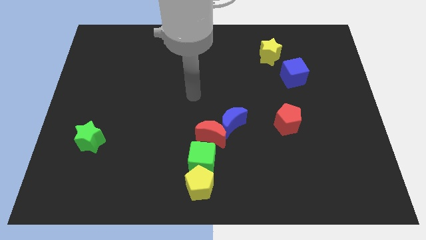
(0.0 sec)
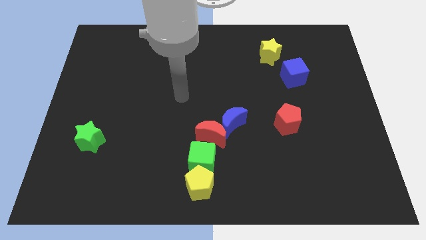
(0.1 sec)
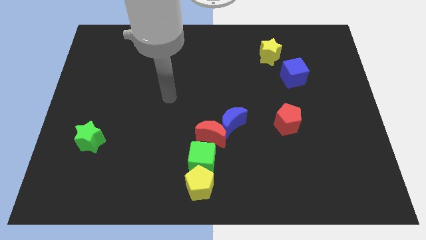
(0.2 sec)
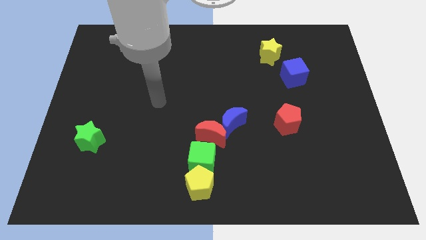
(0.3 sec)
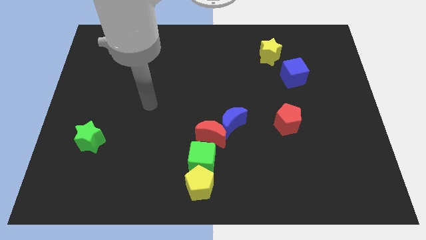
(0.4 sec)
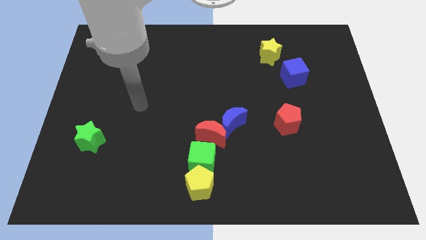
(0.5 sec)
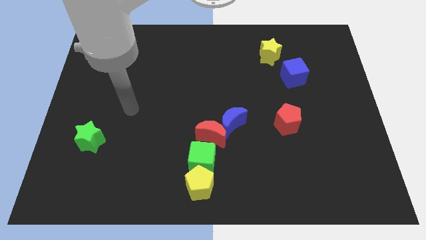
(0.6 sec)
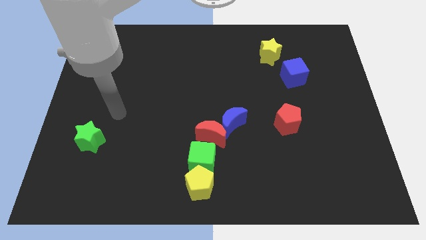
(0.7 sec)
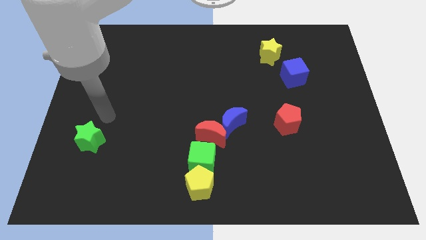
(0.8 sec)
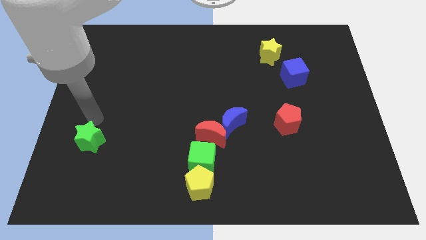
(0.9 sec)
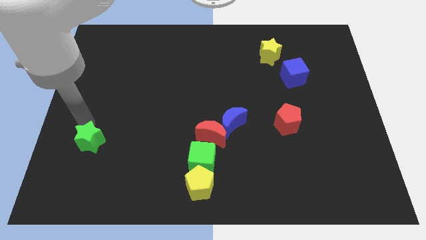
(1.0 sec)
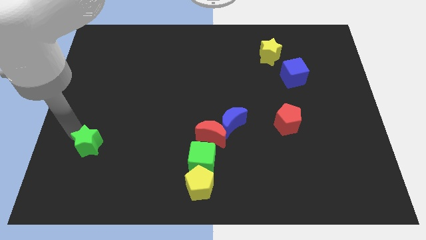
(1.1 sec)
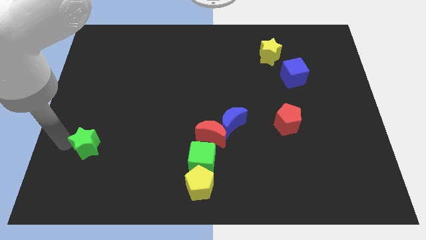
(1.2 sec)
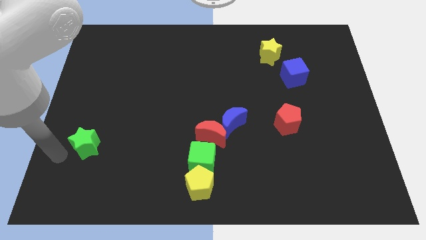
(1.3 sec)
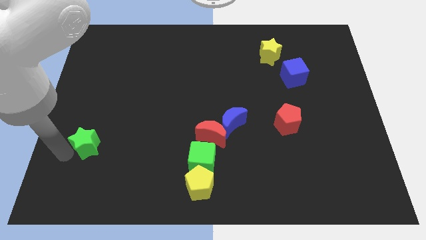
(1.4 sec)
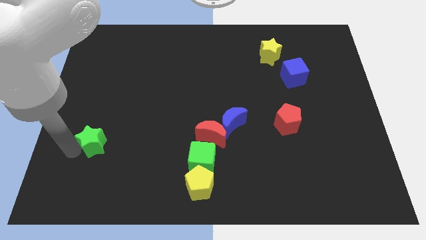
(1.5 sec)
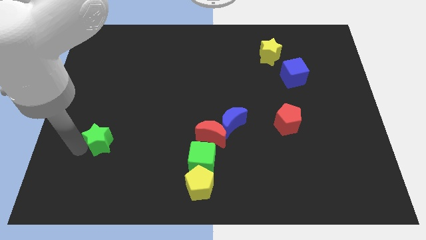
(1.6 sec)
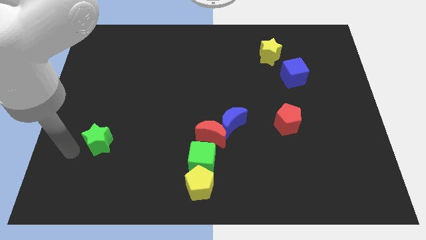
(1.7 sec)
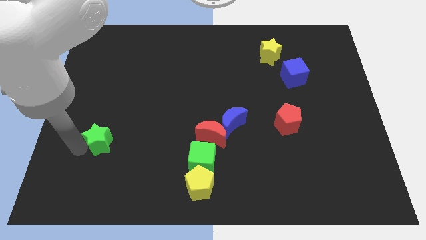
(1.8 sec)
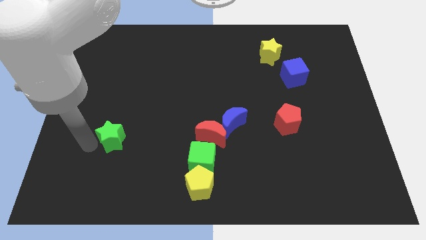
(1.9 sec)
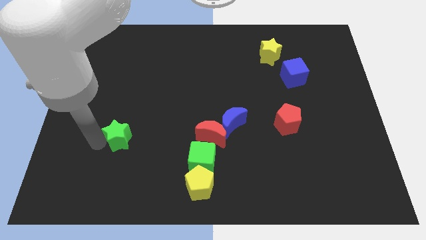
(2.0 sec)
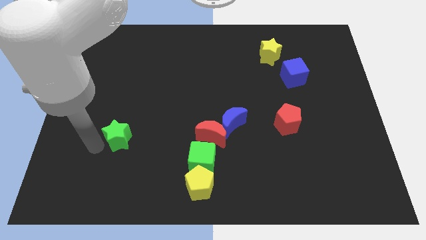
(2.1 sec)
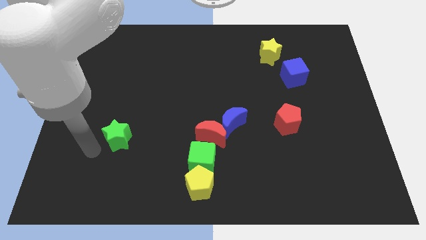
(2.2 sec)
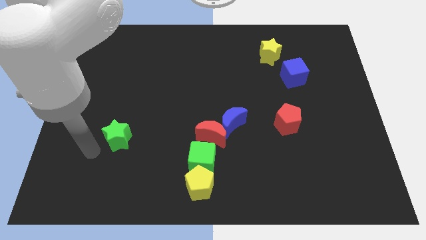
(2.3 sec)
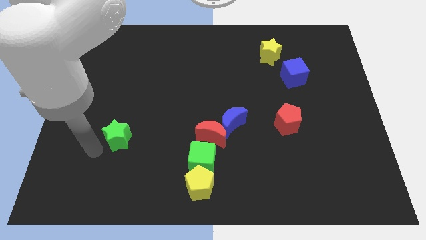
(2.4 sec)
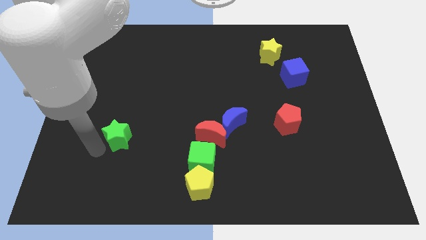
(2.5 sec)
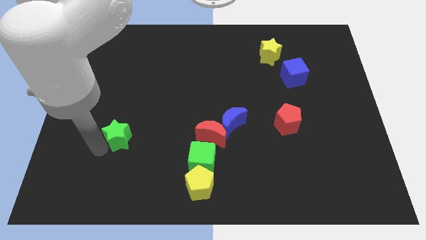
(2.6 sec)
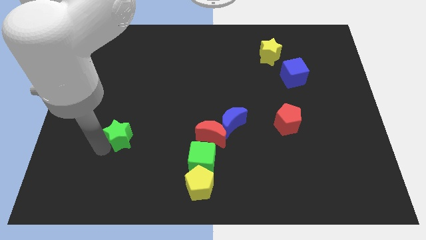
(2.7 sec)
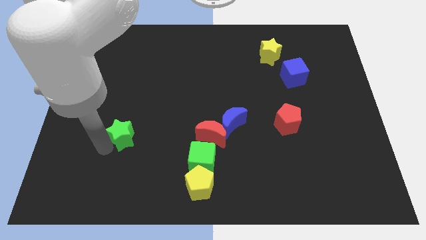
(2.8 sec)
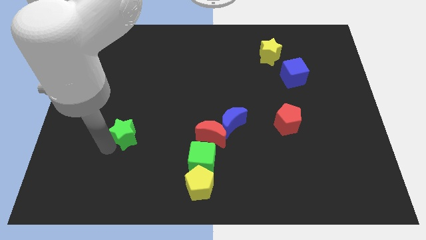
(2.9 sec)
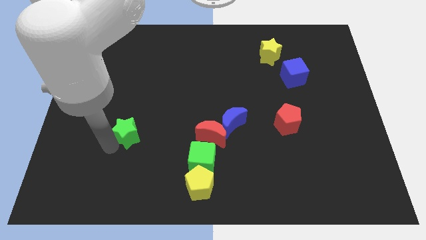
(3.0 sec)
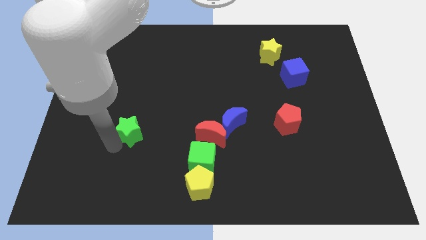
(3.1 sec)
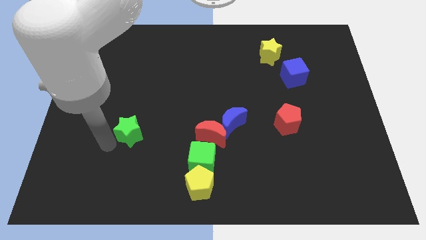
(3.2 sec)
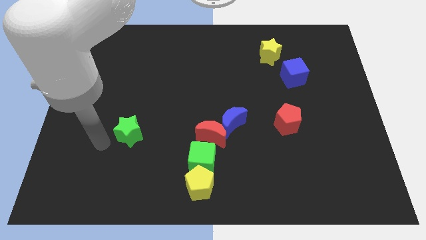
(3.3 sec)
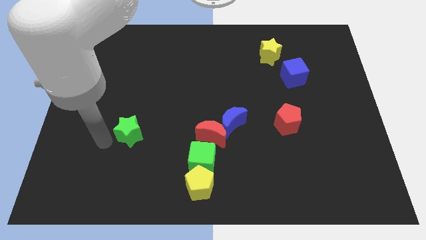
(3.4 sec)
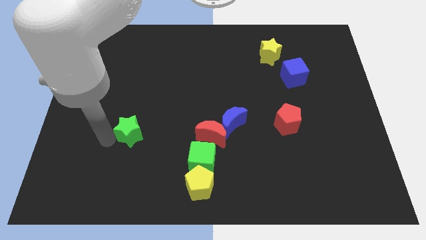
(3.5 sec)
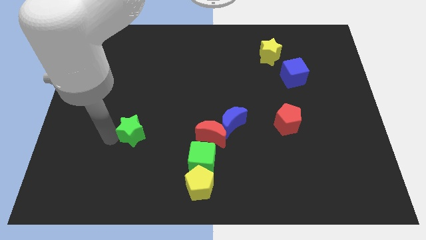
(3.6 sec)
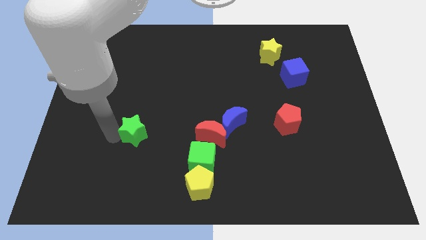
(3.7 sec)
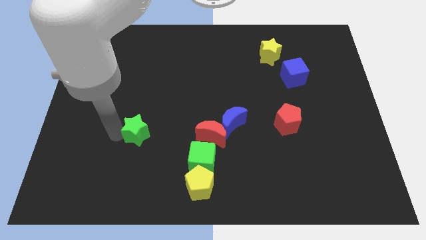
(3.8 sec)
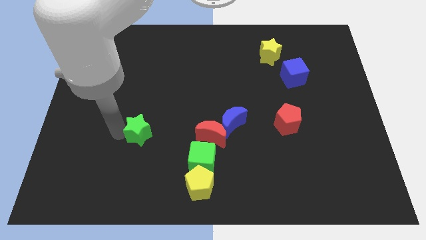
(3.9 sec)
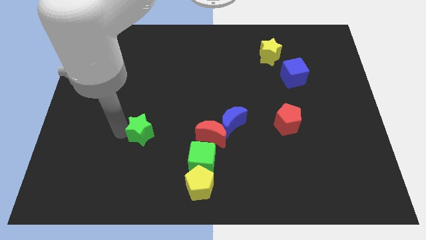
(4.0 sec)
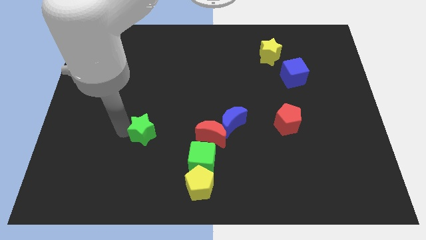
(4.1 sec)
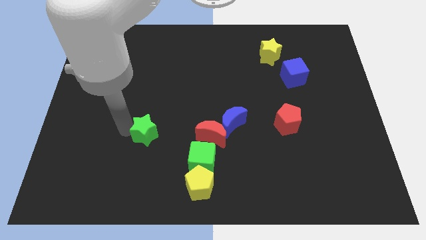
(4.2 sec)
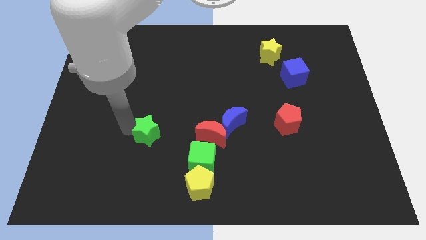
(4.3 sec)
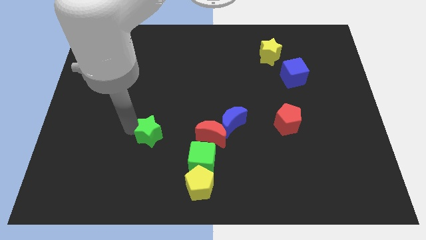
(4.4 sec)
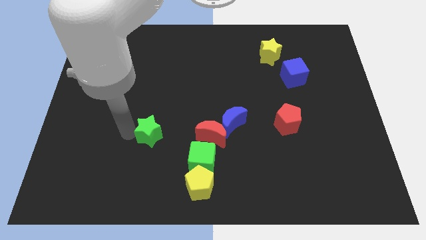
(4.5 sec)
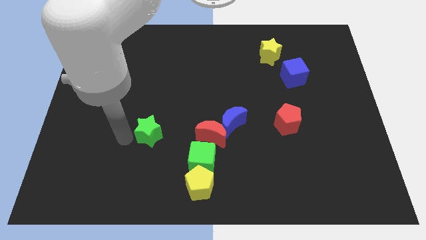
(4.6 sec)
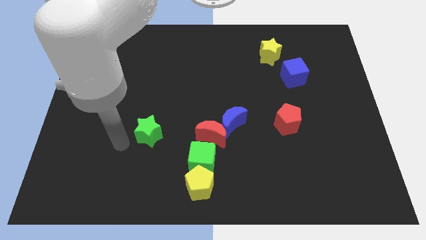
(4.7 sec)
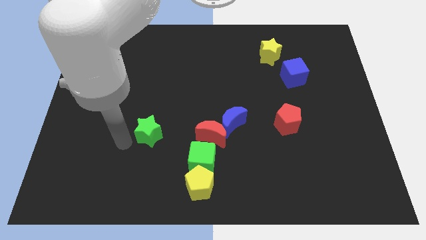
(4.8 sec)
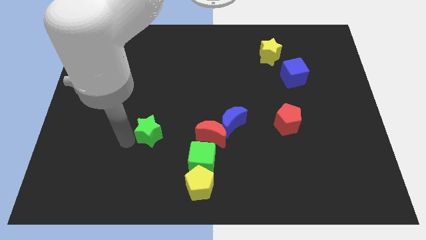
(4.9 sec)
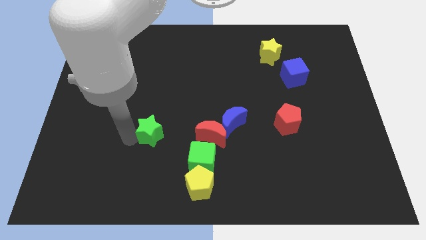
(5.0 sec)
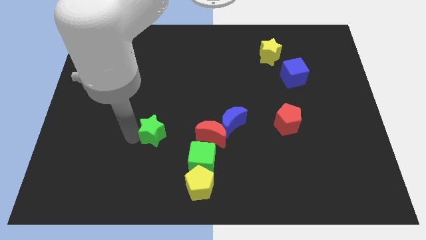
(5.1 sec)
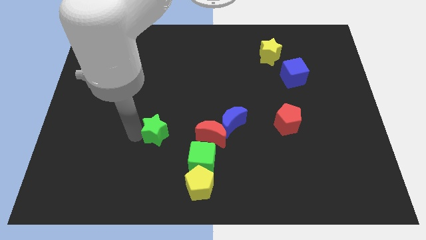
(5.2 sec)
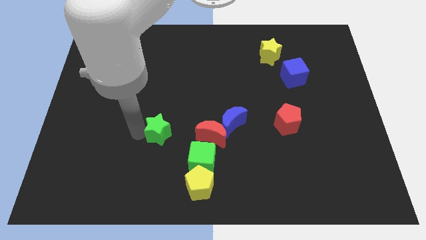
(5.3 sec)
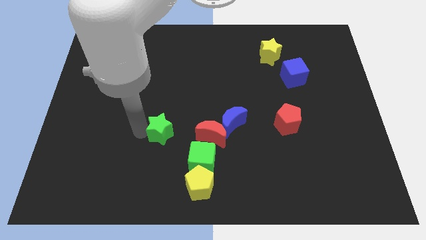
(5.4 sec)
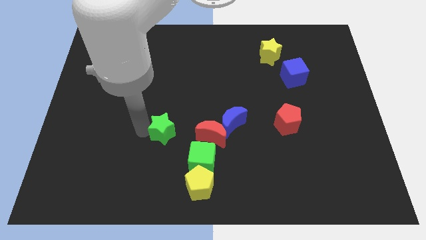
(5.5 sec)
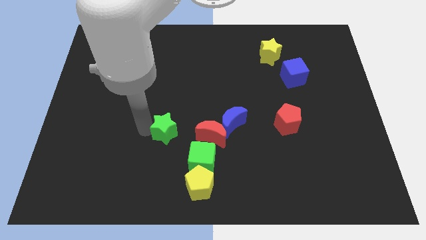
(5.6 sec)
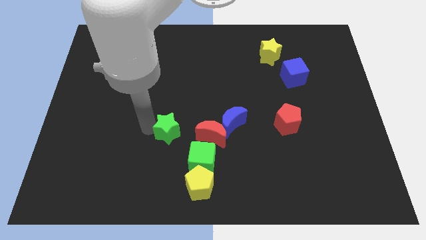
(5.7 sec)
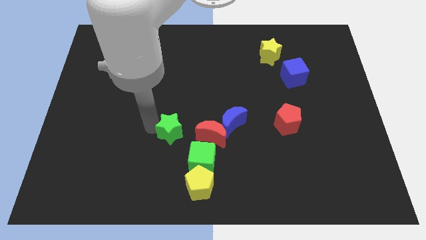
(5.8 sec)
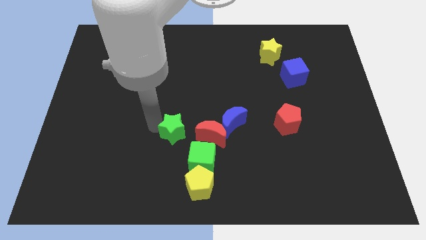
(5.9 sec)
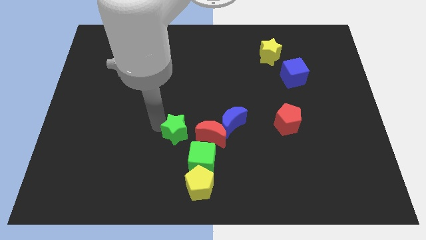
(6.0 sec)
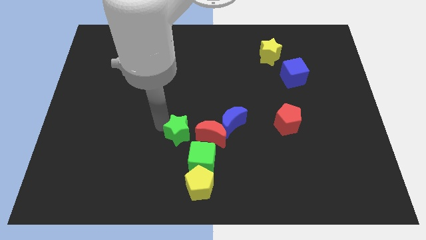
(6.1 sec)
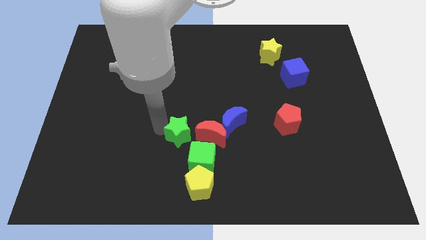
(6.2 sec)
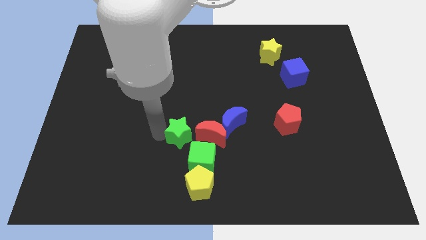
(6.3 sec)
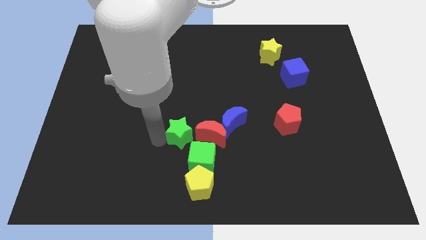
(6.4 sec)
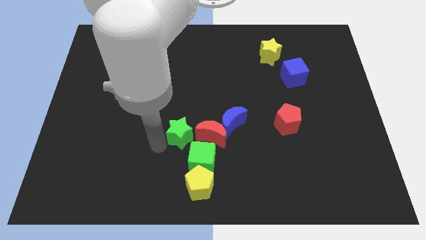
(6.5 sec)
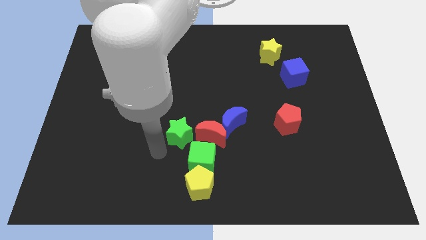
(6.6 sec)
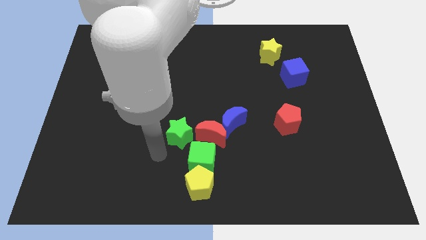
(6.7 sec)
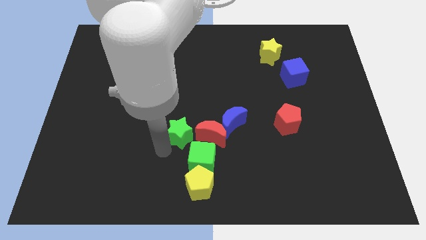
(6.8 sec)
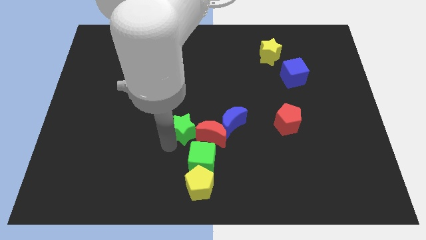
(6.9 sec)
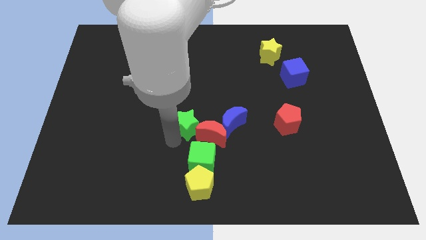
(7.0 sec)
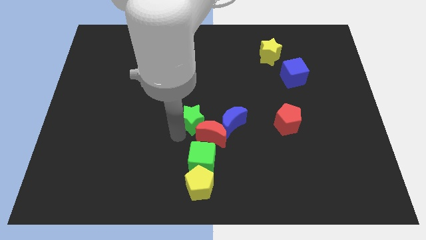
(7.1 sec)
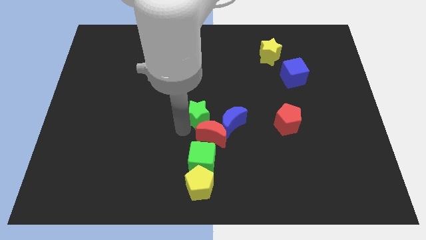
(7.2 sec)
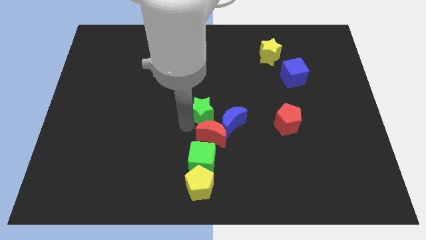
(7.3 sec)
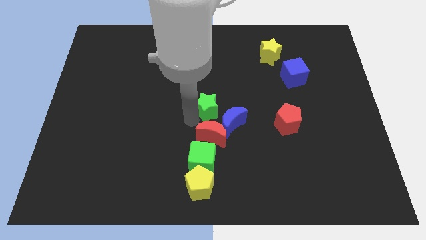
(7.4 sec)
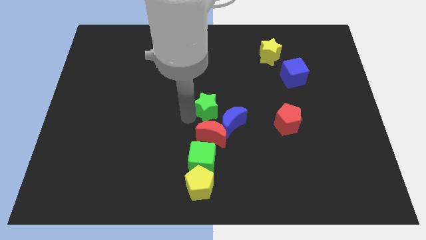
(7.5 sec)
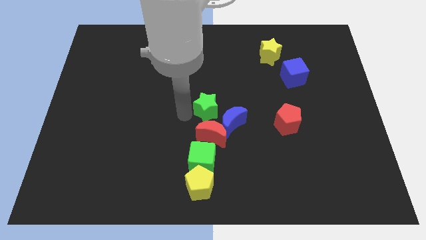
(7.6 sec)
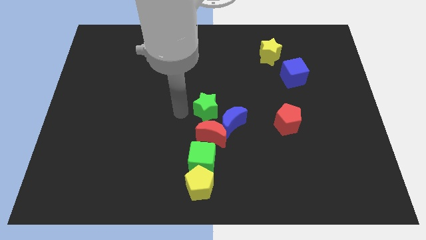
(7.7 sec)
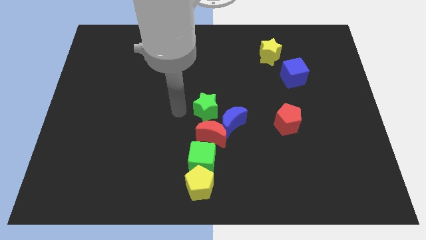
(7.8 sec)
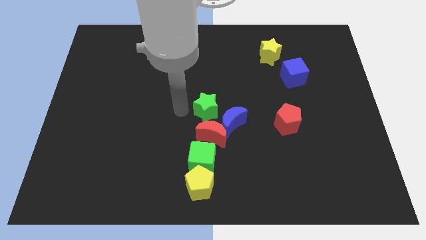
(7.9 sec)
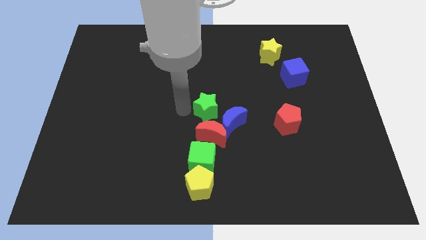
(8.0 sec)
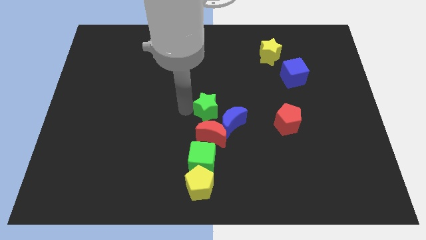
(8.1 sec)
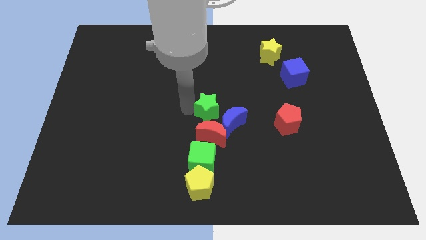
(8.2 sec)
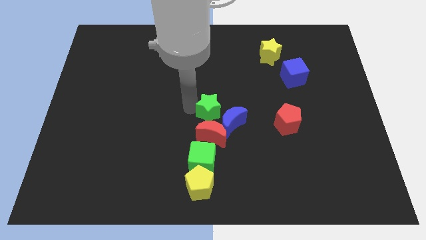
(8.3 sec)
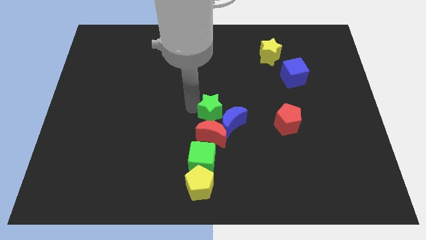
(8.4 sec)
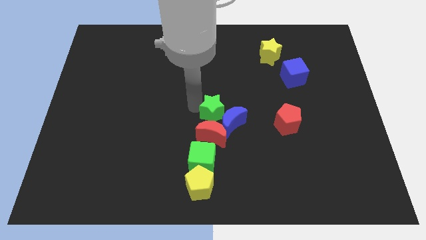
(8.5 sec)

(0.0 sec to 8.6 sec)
put the green star to the top right side of the red moon
